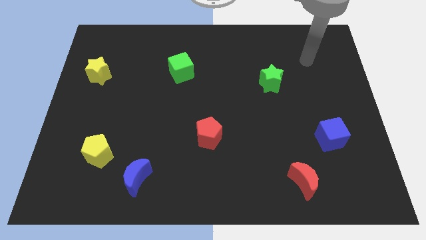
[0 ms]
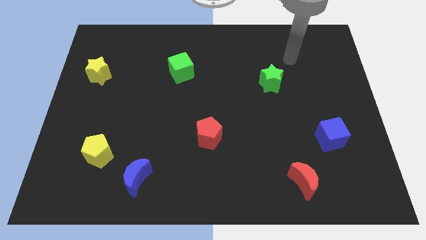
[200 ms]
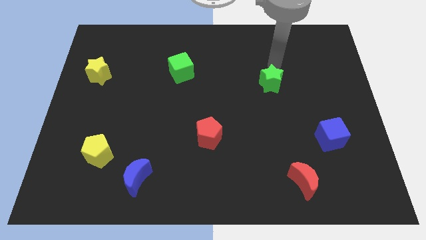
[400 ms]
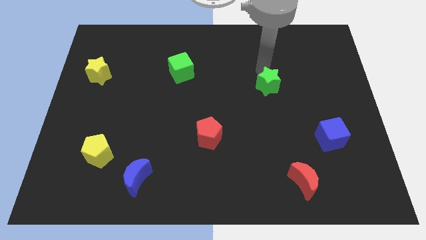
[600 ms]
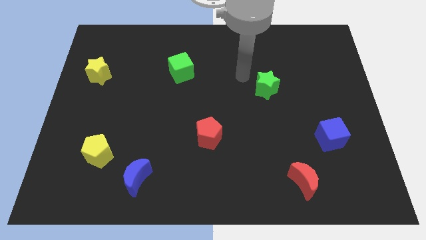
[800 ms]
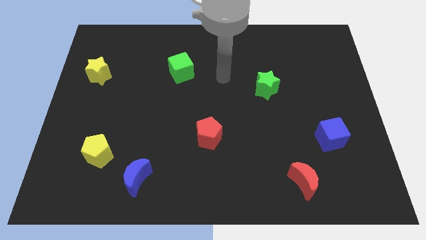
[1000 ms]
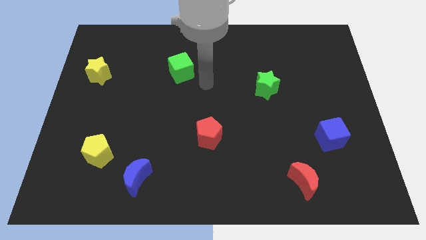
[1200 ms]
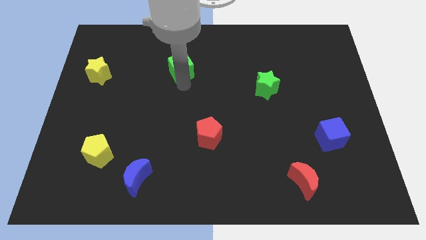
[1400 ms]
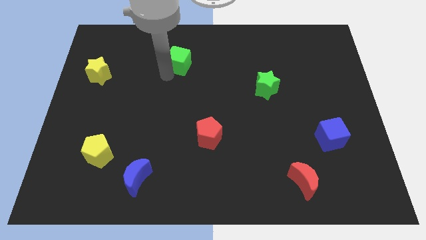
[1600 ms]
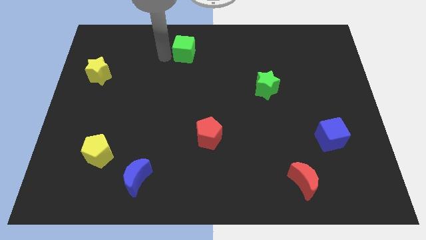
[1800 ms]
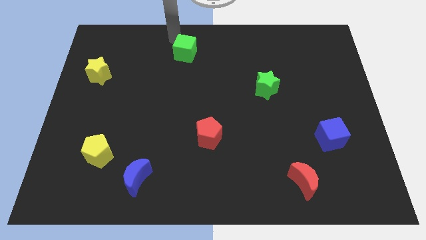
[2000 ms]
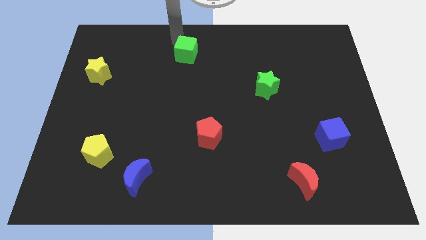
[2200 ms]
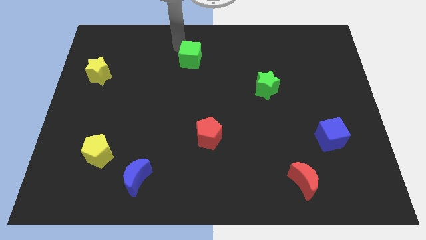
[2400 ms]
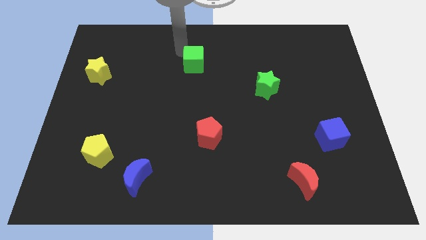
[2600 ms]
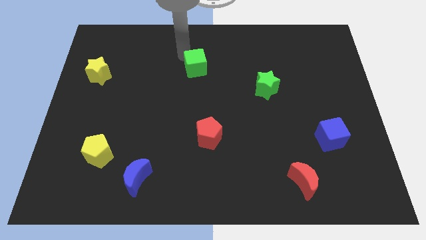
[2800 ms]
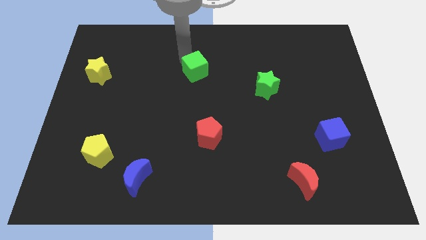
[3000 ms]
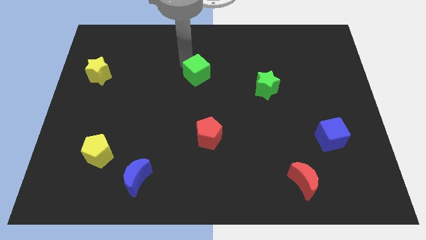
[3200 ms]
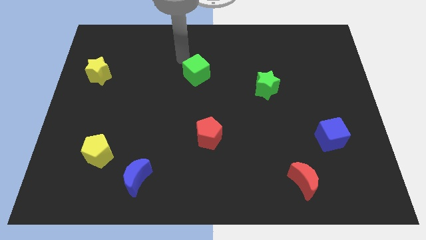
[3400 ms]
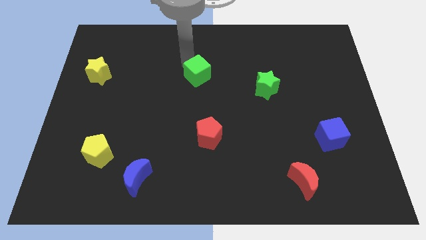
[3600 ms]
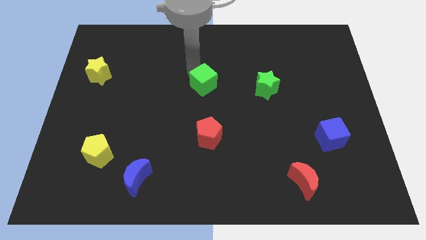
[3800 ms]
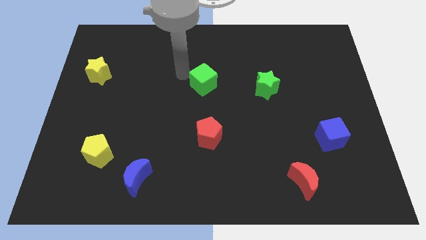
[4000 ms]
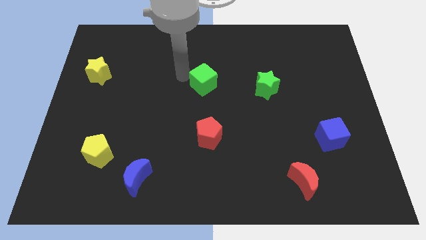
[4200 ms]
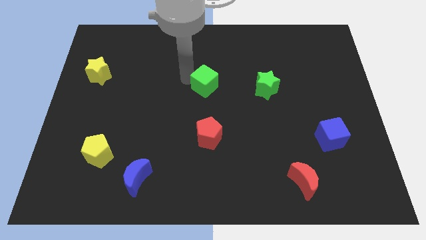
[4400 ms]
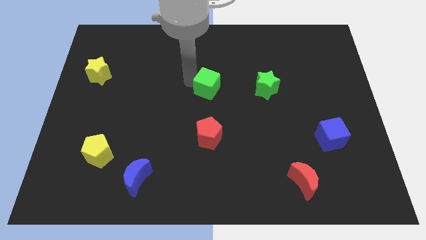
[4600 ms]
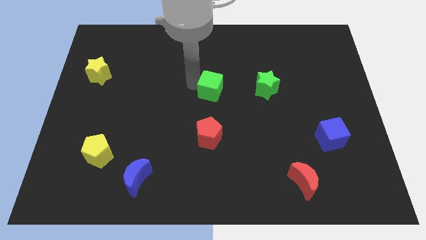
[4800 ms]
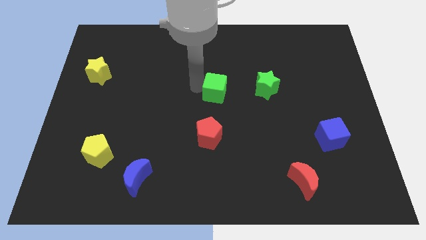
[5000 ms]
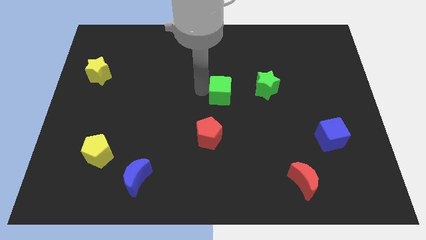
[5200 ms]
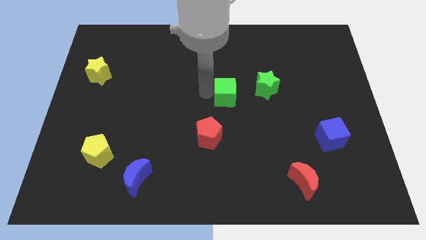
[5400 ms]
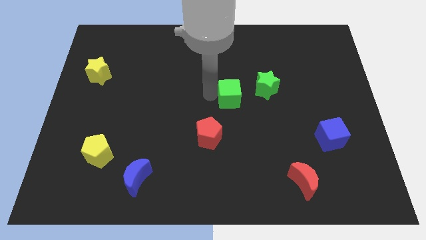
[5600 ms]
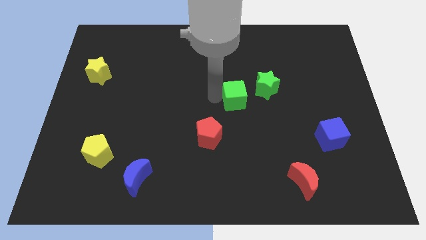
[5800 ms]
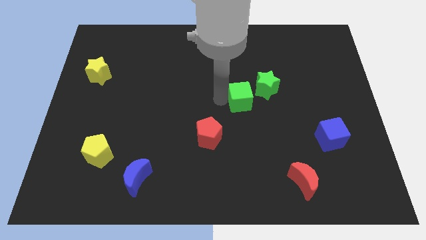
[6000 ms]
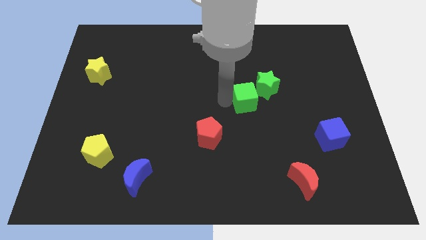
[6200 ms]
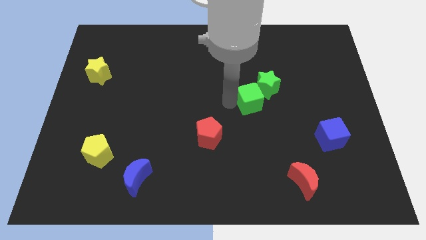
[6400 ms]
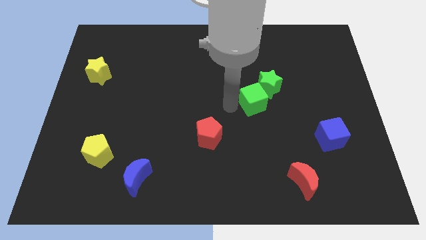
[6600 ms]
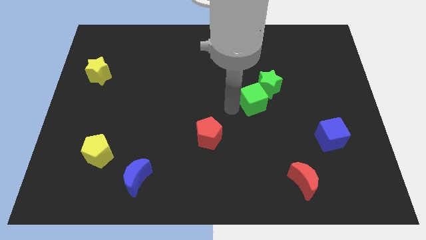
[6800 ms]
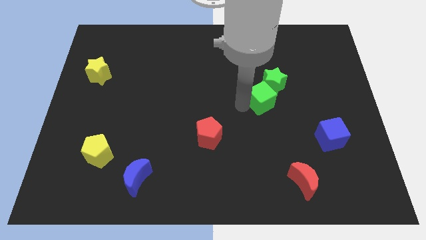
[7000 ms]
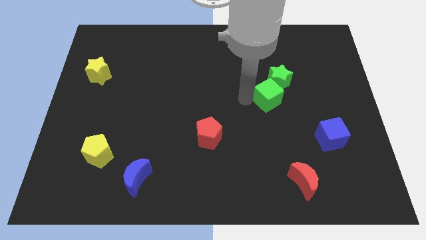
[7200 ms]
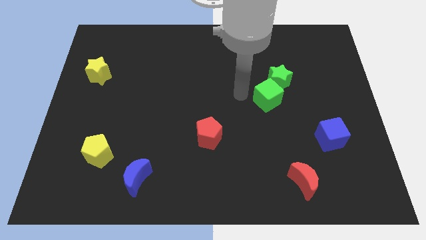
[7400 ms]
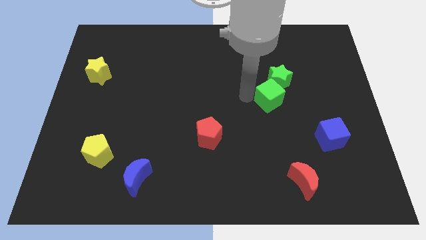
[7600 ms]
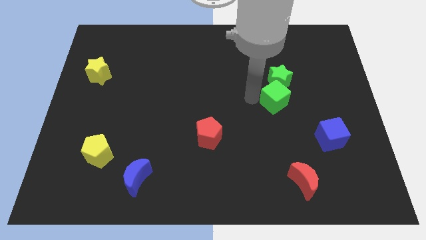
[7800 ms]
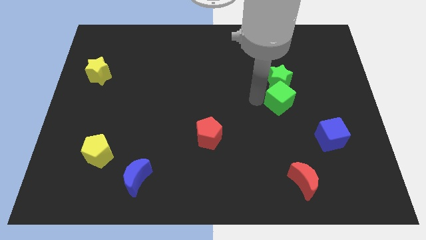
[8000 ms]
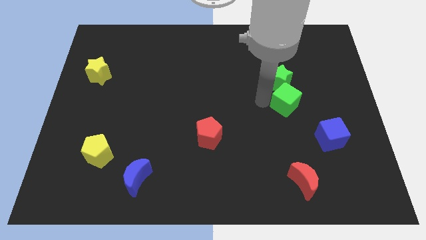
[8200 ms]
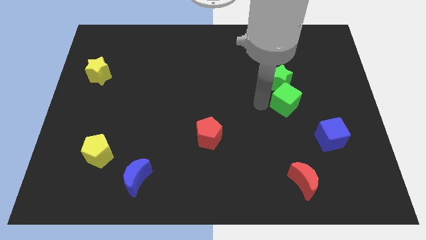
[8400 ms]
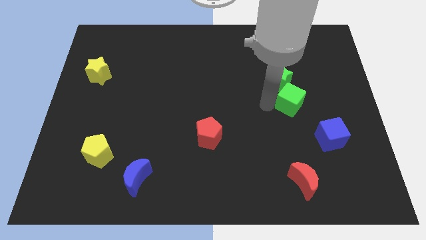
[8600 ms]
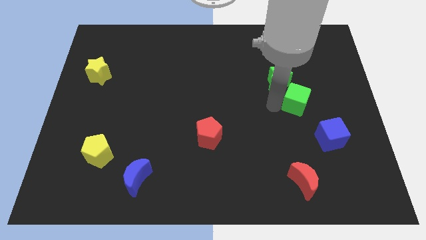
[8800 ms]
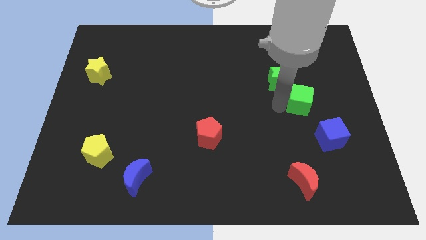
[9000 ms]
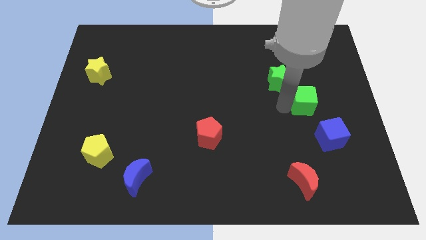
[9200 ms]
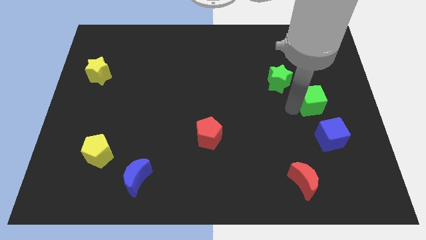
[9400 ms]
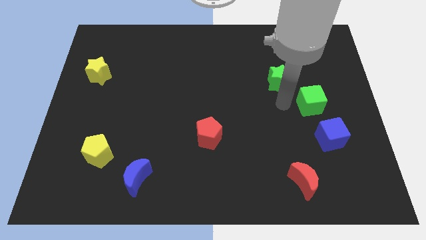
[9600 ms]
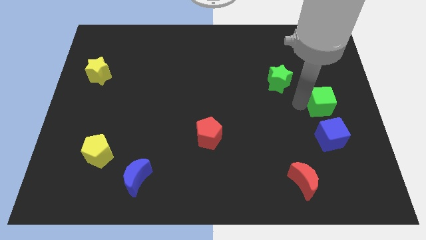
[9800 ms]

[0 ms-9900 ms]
put the green cube to the center right

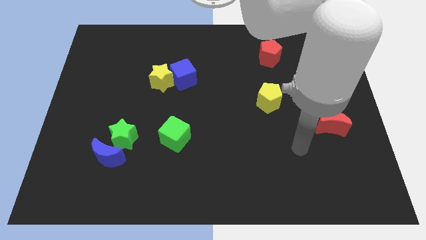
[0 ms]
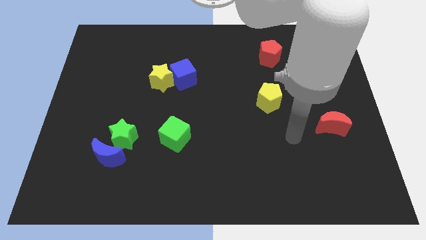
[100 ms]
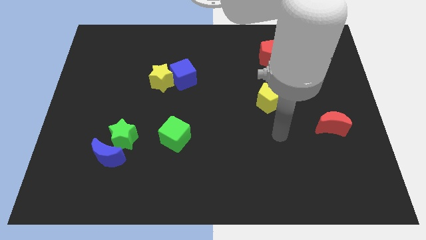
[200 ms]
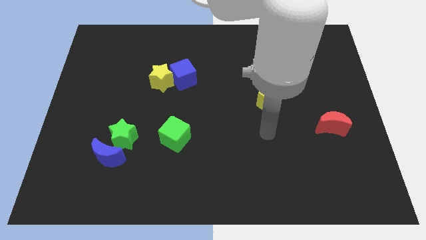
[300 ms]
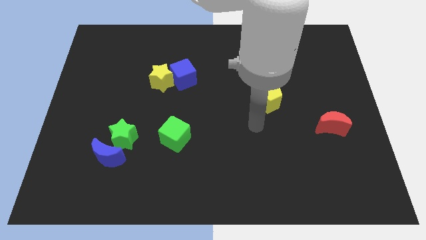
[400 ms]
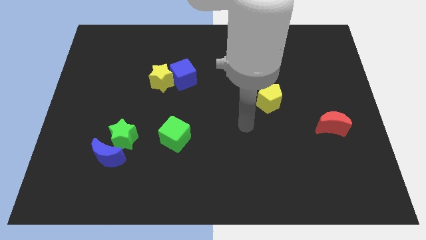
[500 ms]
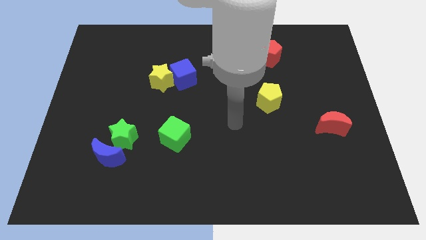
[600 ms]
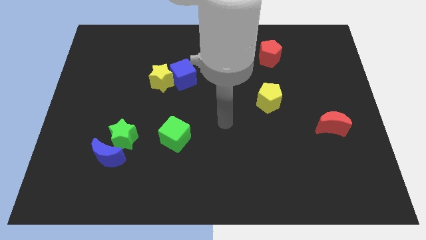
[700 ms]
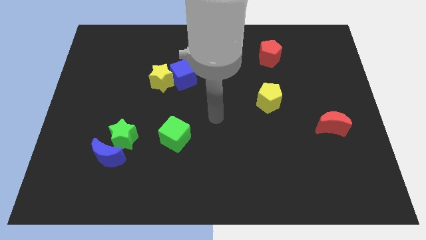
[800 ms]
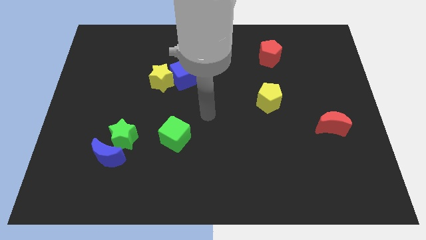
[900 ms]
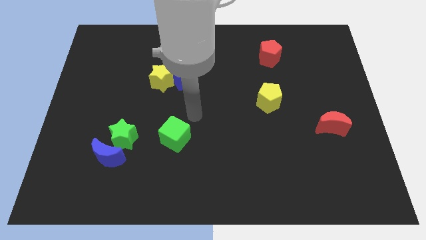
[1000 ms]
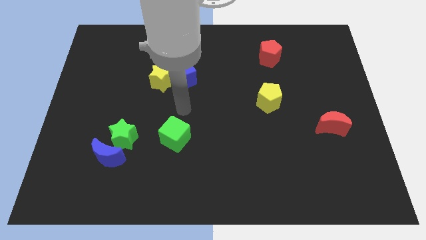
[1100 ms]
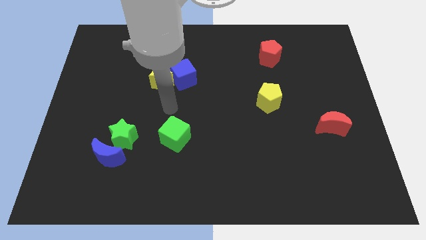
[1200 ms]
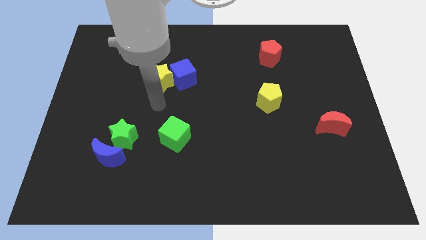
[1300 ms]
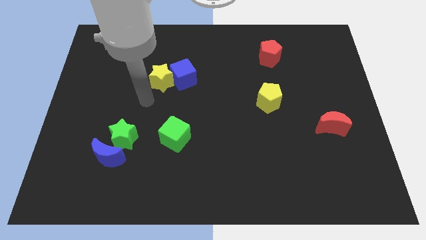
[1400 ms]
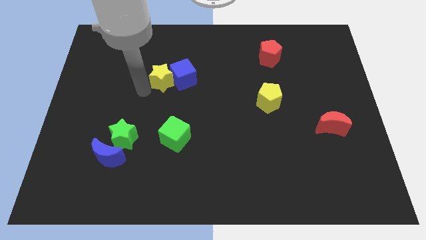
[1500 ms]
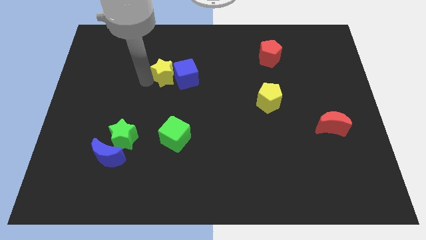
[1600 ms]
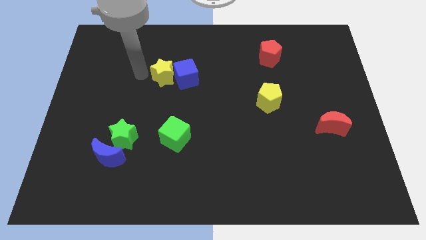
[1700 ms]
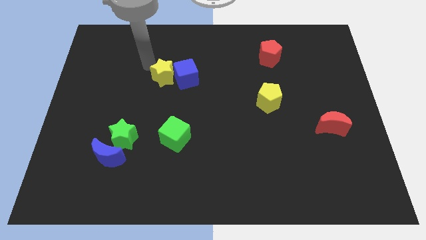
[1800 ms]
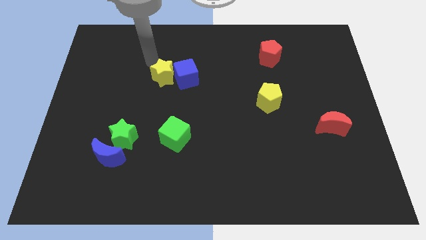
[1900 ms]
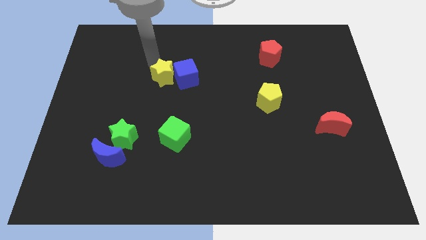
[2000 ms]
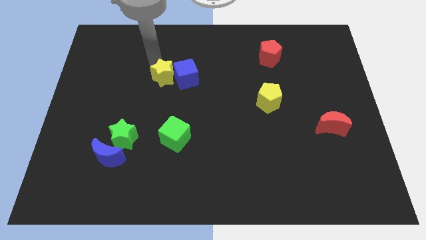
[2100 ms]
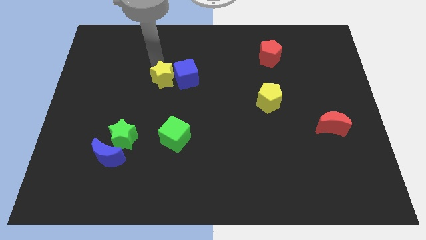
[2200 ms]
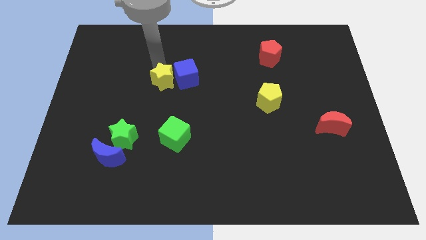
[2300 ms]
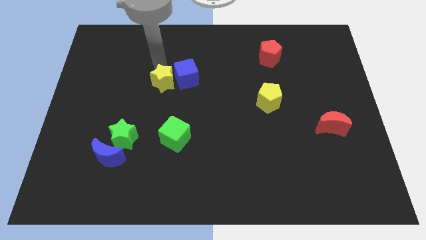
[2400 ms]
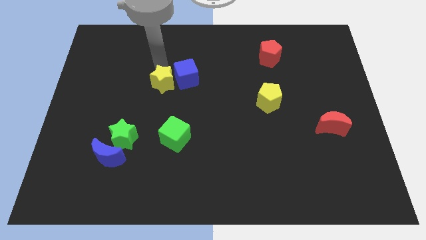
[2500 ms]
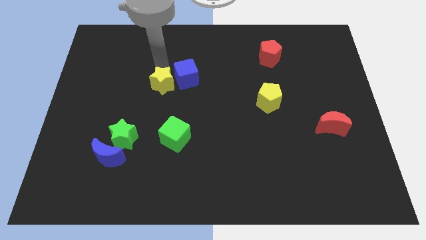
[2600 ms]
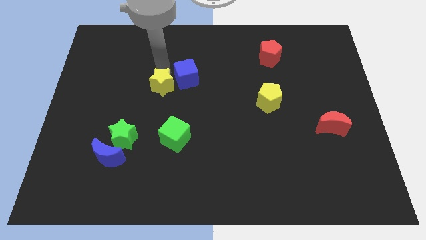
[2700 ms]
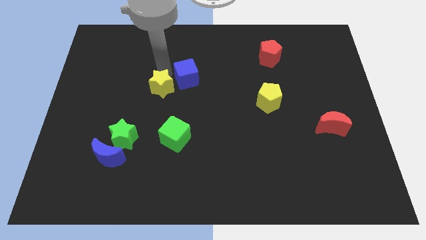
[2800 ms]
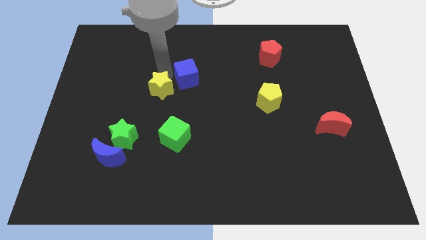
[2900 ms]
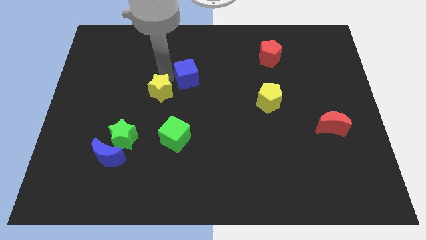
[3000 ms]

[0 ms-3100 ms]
push the yellow star to the middle of the board
